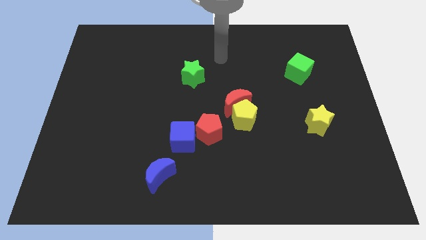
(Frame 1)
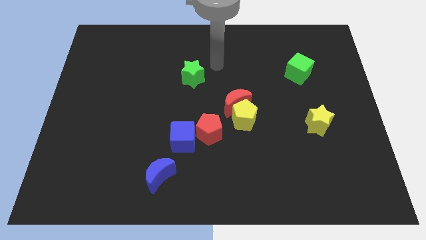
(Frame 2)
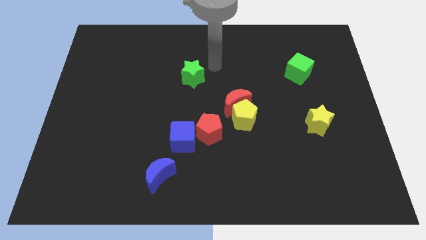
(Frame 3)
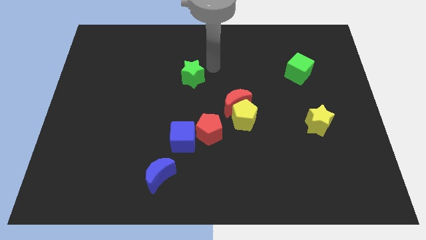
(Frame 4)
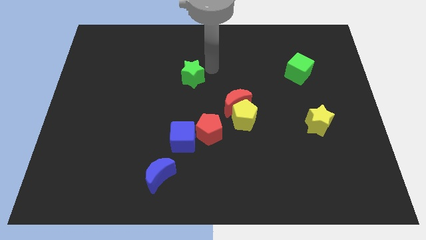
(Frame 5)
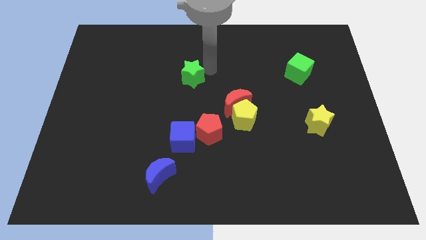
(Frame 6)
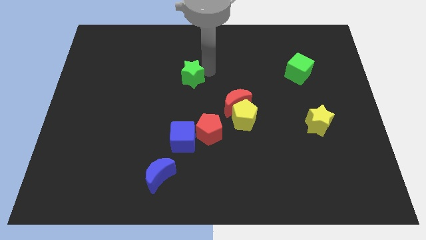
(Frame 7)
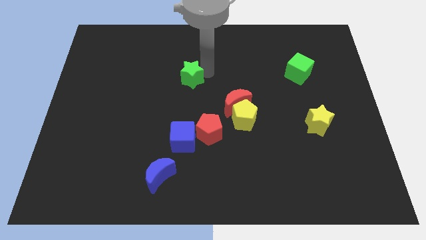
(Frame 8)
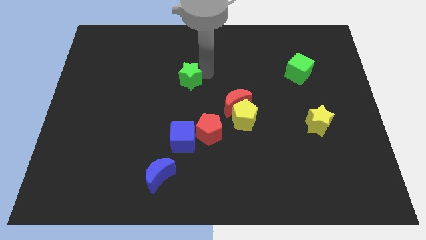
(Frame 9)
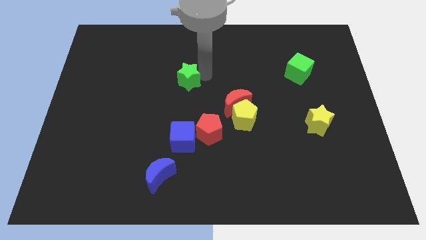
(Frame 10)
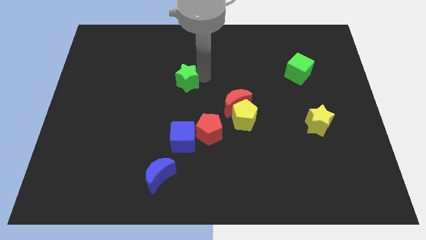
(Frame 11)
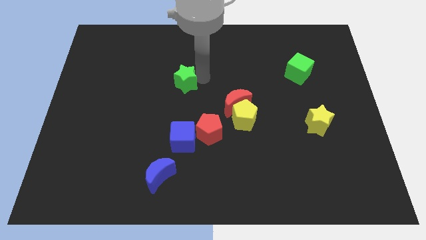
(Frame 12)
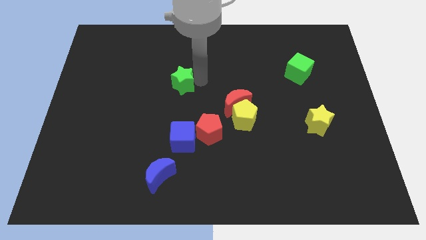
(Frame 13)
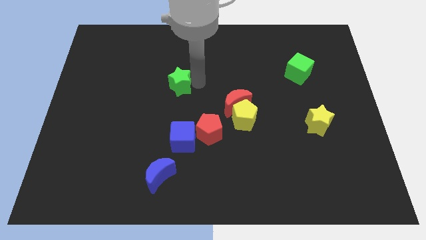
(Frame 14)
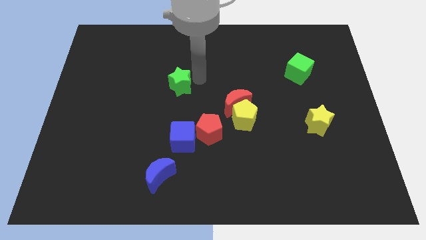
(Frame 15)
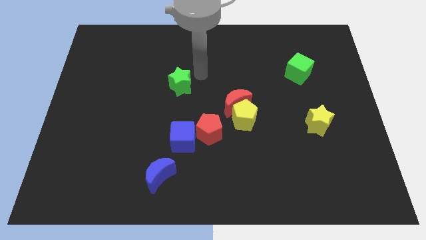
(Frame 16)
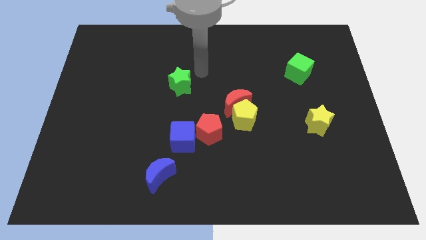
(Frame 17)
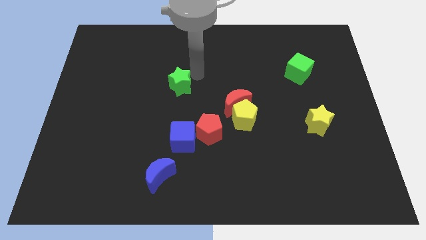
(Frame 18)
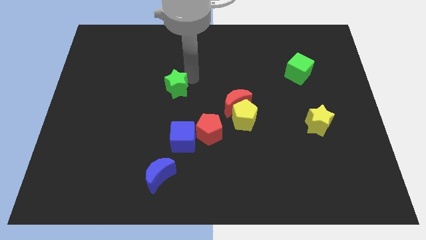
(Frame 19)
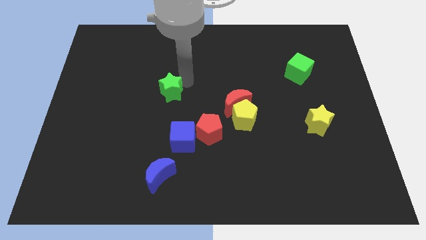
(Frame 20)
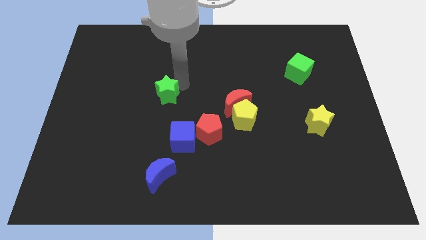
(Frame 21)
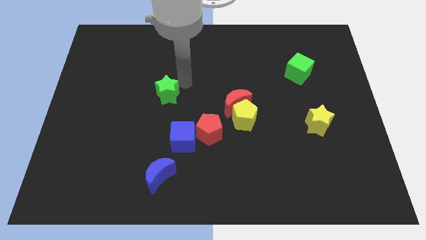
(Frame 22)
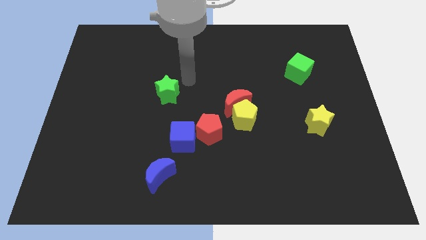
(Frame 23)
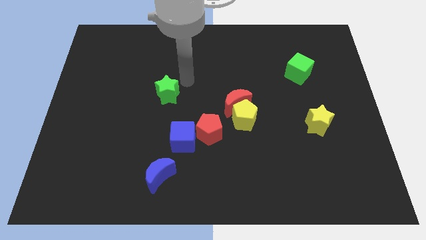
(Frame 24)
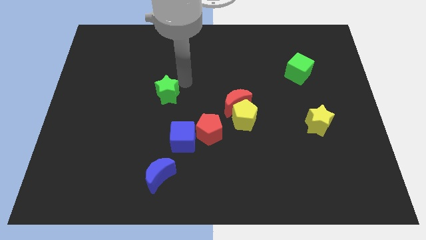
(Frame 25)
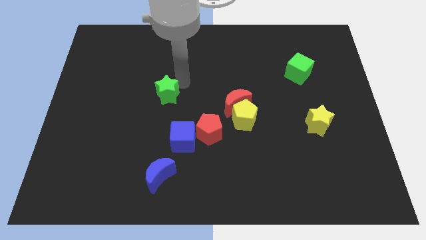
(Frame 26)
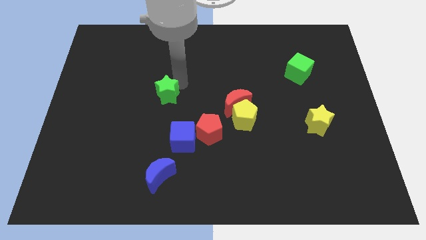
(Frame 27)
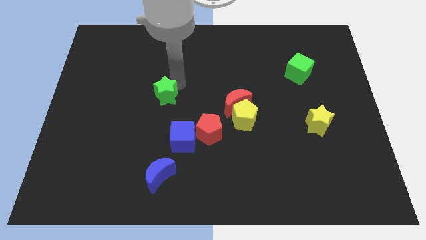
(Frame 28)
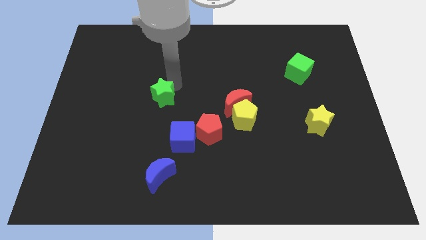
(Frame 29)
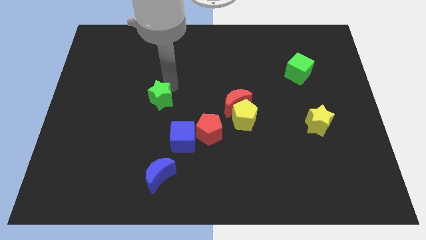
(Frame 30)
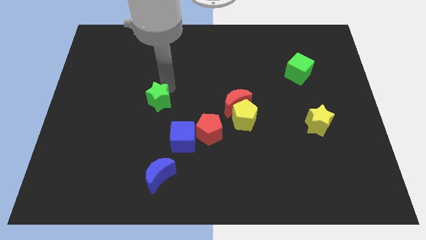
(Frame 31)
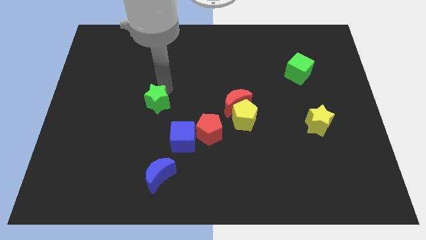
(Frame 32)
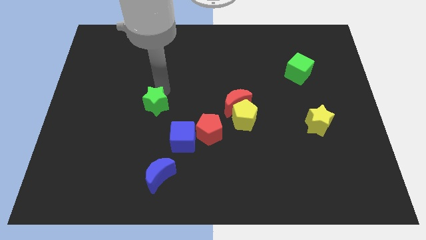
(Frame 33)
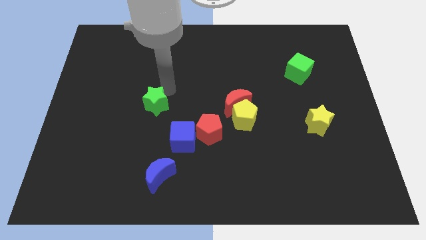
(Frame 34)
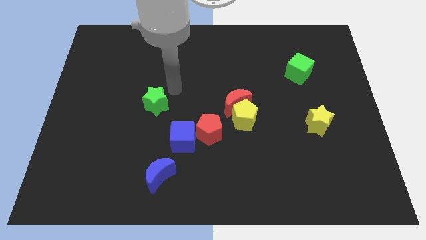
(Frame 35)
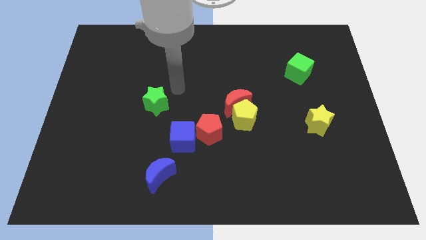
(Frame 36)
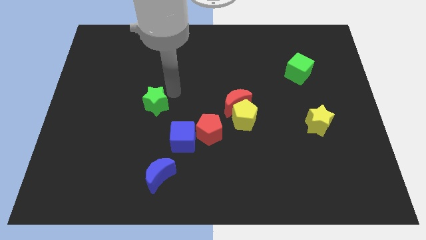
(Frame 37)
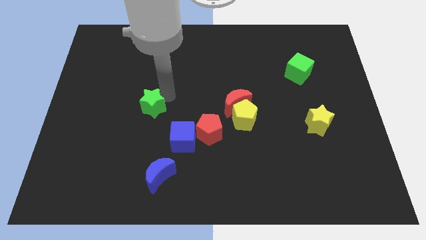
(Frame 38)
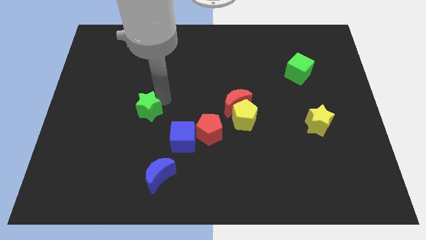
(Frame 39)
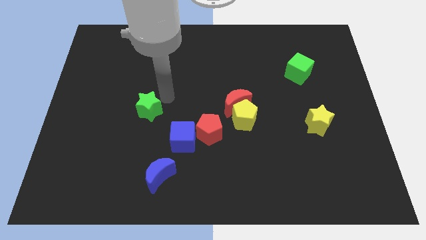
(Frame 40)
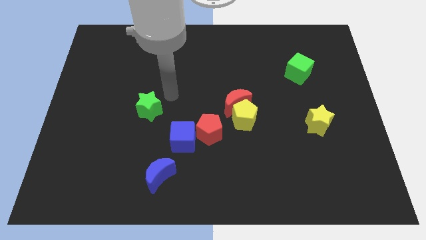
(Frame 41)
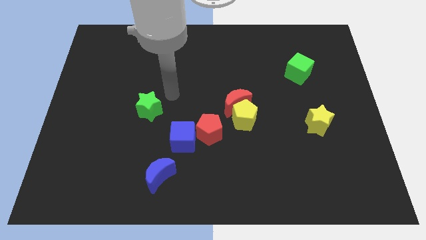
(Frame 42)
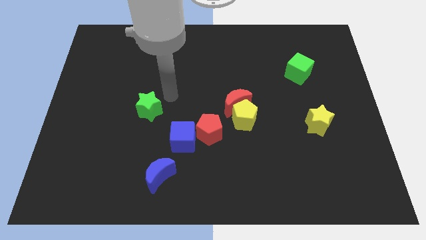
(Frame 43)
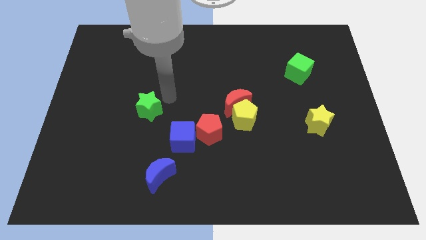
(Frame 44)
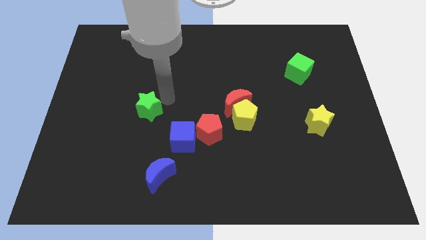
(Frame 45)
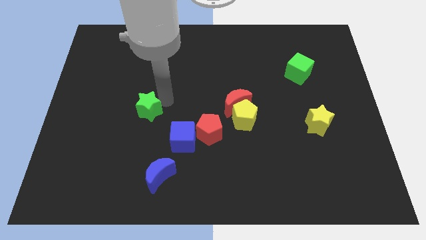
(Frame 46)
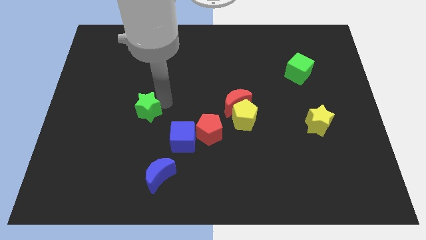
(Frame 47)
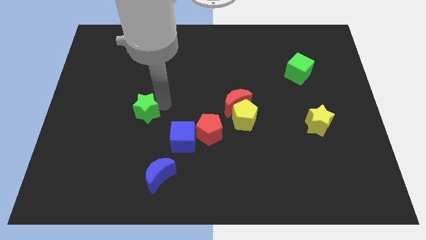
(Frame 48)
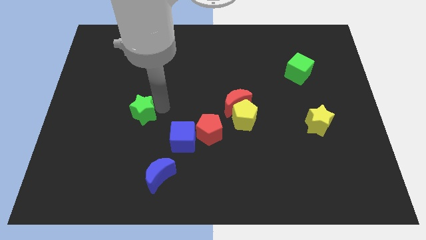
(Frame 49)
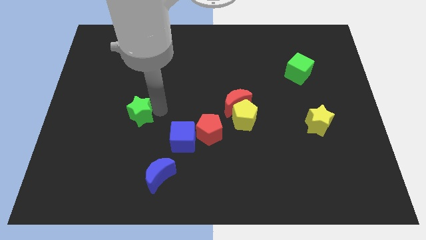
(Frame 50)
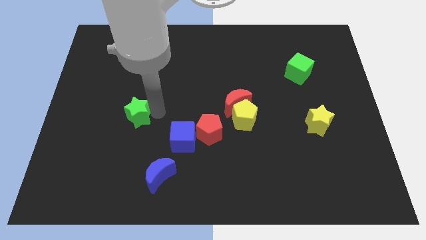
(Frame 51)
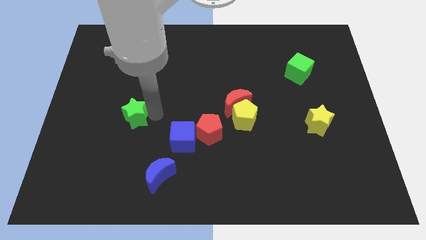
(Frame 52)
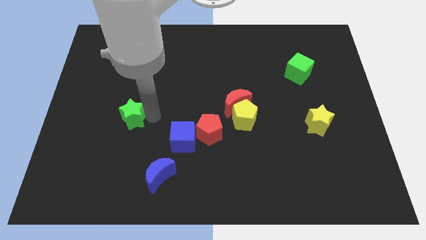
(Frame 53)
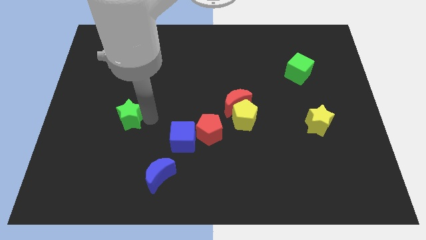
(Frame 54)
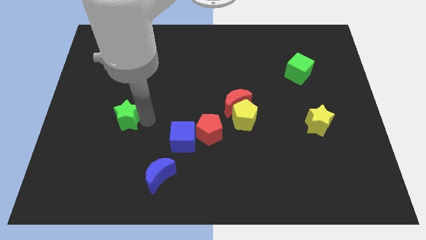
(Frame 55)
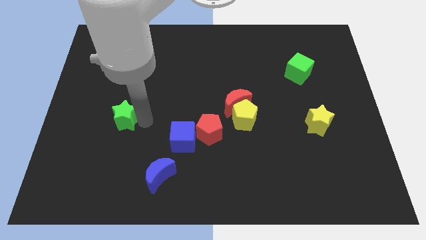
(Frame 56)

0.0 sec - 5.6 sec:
move the green star downwards and then to the left

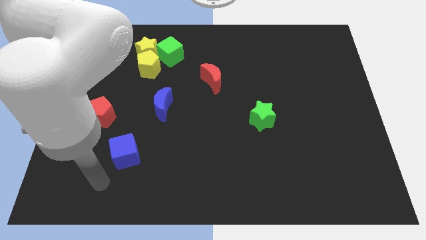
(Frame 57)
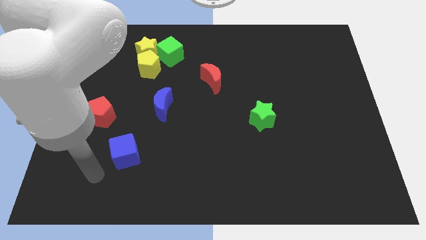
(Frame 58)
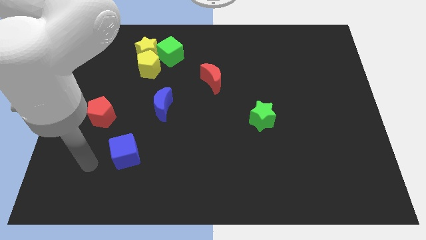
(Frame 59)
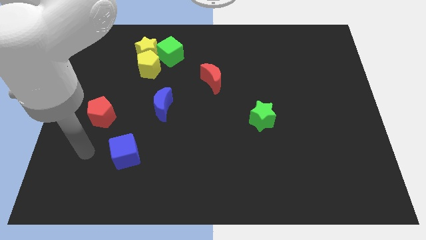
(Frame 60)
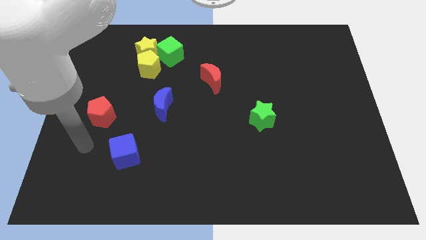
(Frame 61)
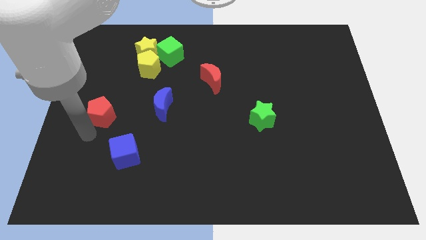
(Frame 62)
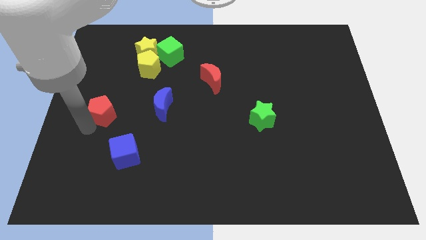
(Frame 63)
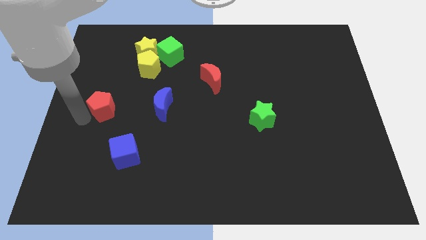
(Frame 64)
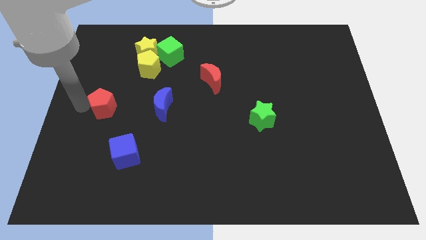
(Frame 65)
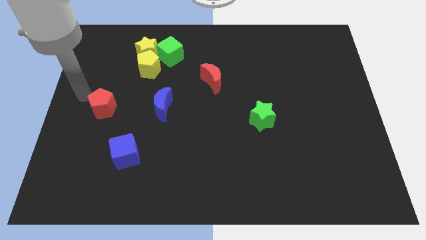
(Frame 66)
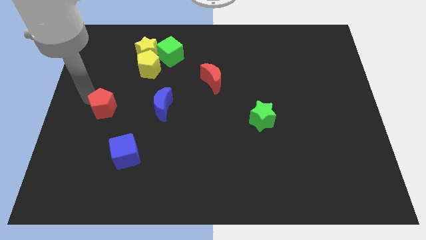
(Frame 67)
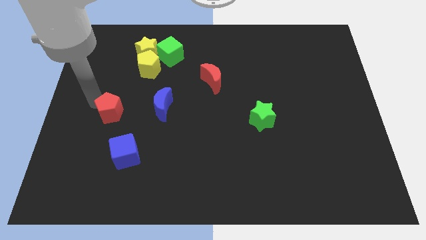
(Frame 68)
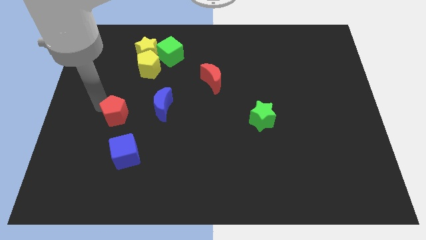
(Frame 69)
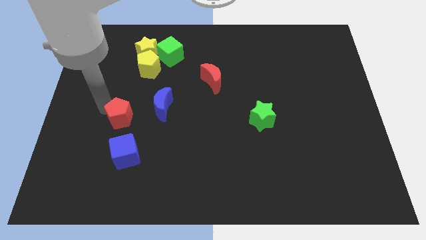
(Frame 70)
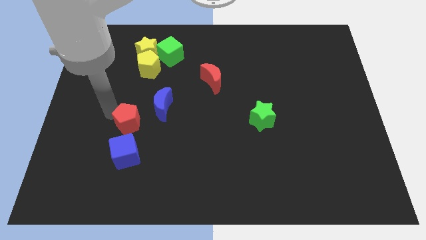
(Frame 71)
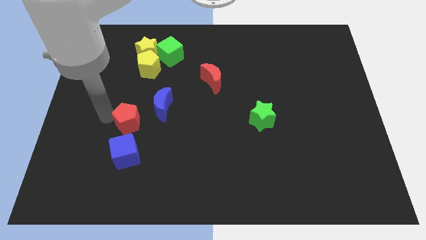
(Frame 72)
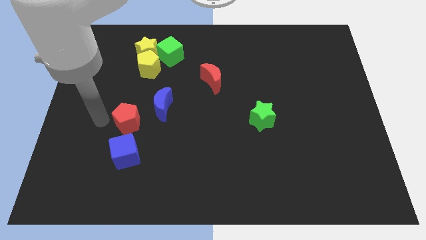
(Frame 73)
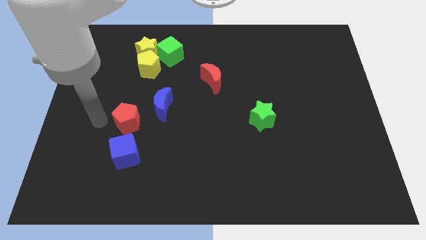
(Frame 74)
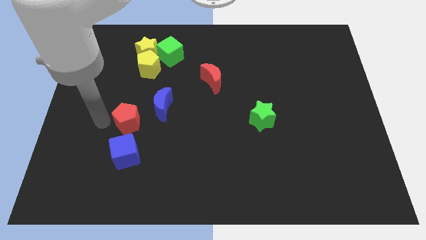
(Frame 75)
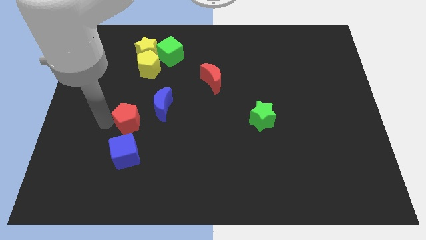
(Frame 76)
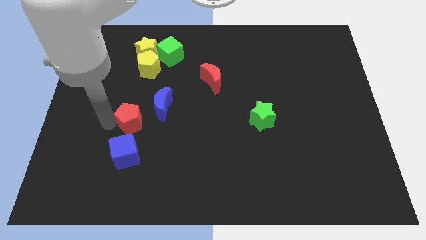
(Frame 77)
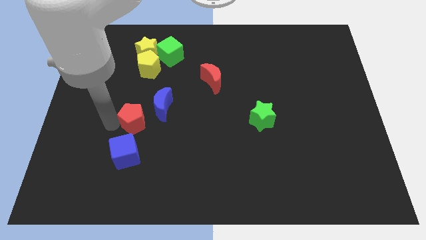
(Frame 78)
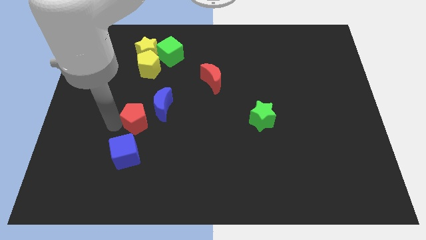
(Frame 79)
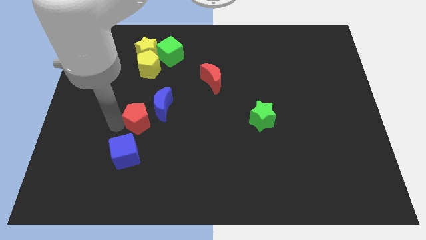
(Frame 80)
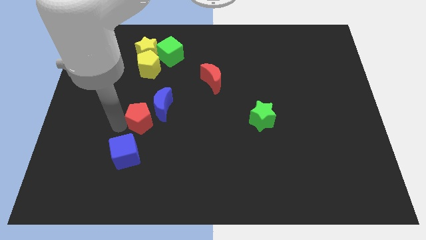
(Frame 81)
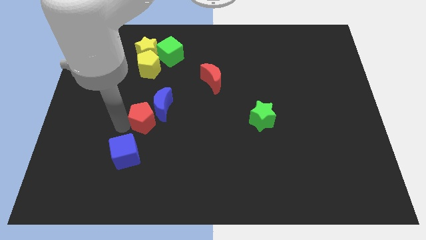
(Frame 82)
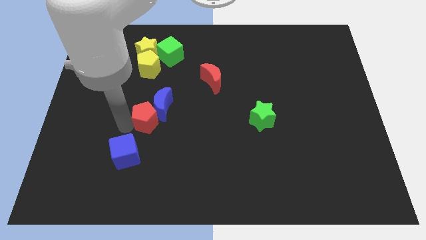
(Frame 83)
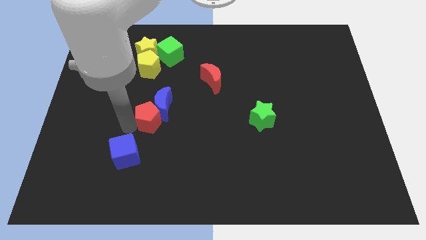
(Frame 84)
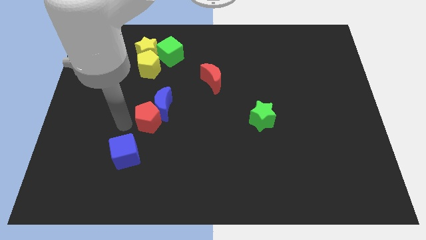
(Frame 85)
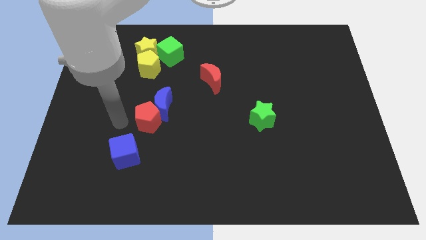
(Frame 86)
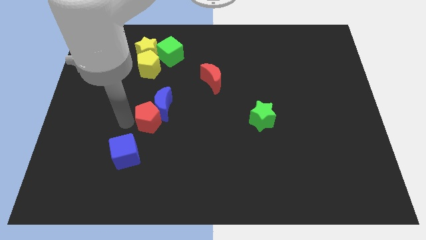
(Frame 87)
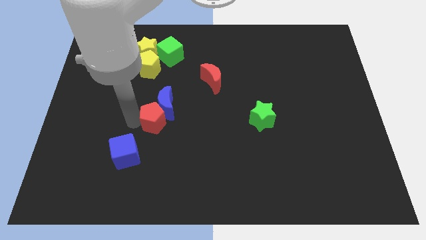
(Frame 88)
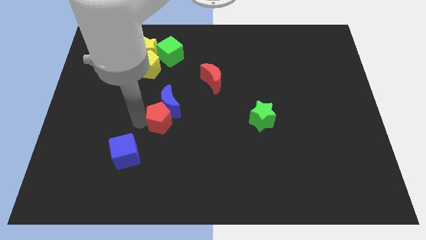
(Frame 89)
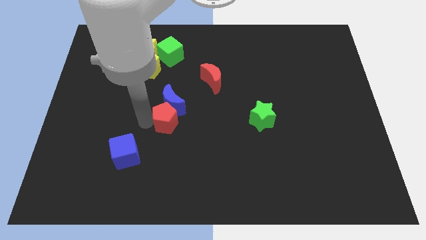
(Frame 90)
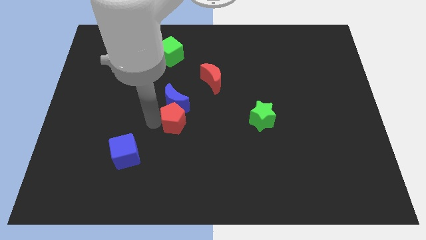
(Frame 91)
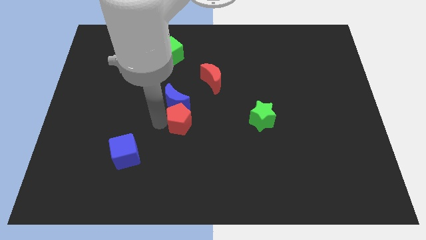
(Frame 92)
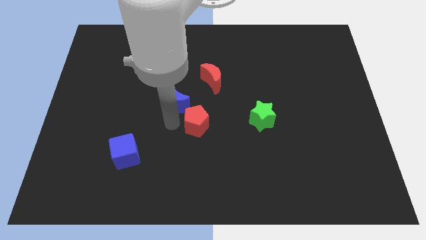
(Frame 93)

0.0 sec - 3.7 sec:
move the red pentagon right
